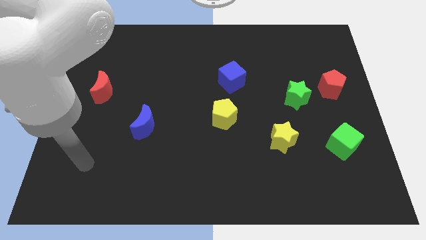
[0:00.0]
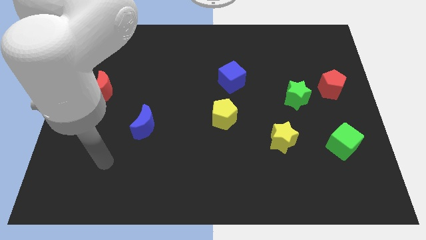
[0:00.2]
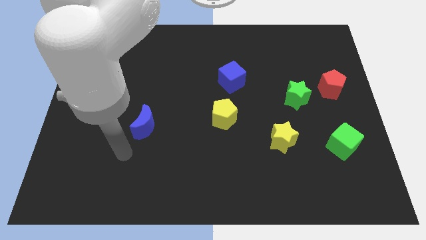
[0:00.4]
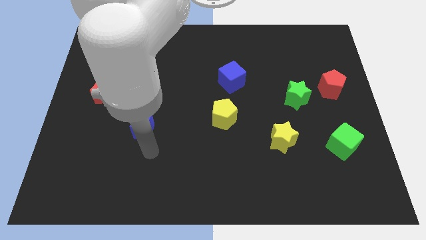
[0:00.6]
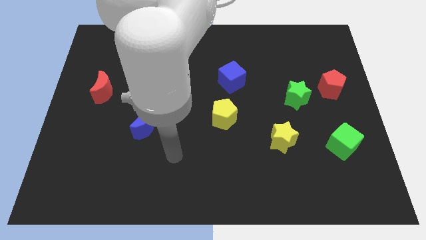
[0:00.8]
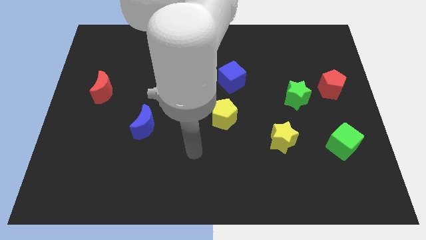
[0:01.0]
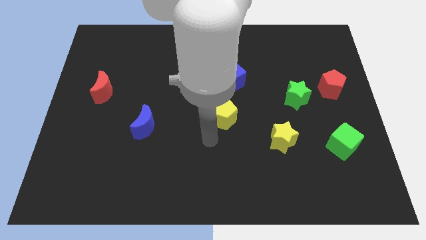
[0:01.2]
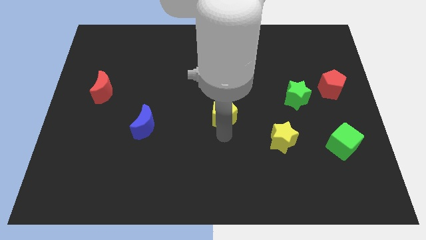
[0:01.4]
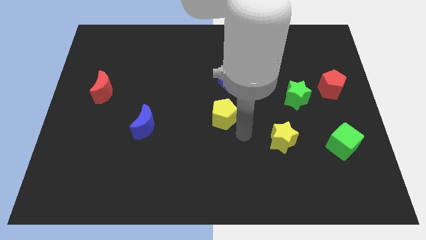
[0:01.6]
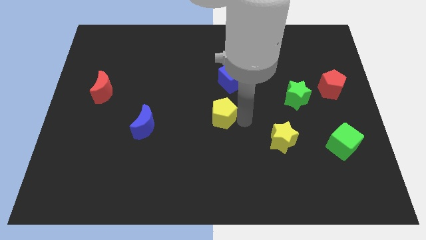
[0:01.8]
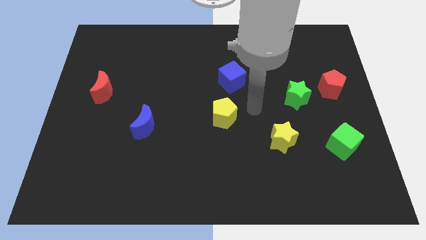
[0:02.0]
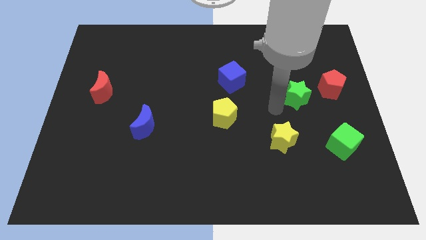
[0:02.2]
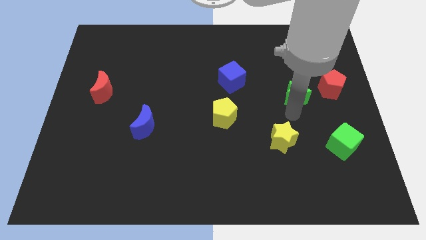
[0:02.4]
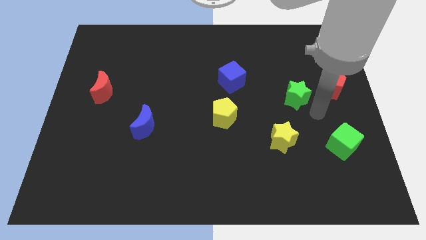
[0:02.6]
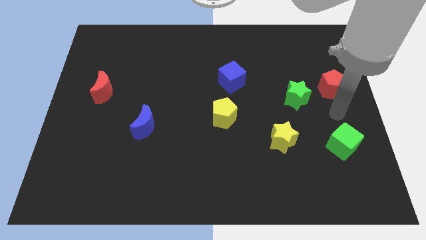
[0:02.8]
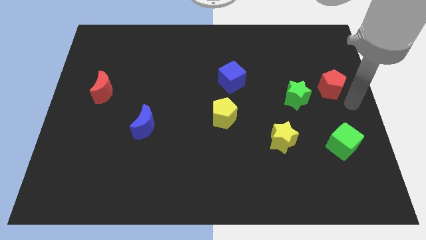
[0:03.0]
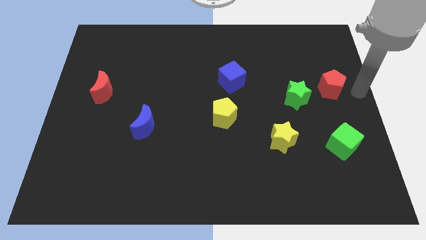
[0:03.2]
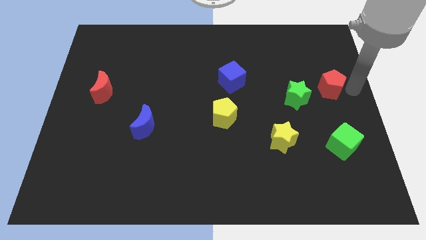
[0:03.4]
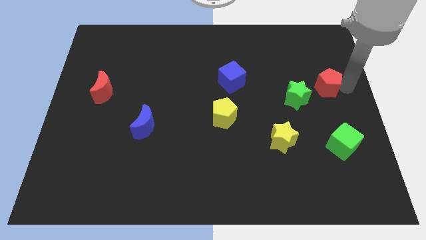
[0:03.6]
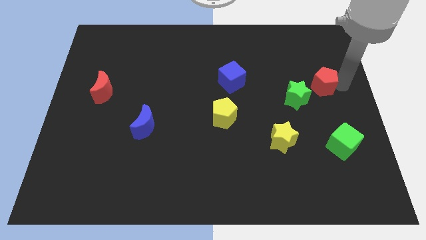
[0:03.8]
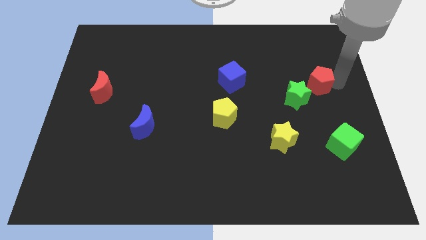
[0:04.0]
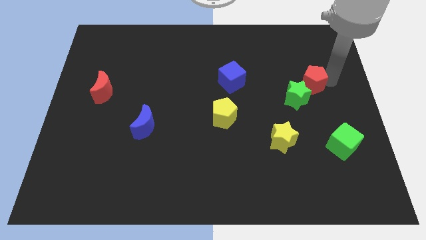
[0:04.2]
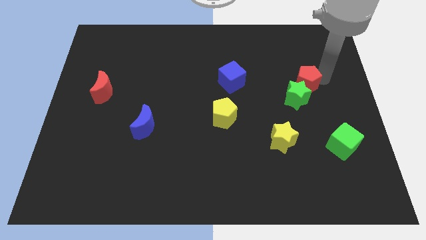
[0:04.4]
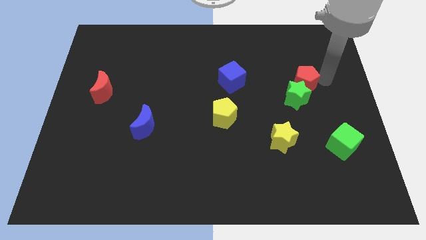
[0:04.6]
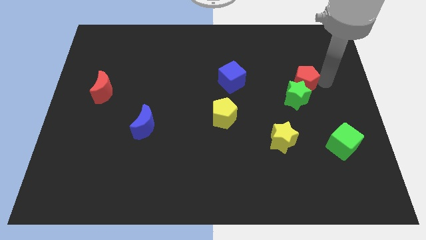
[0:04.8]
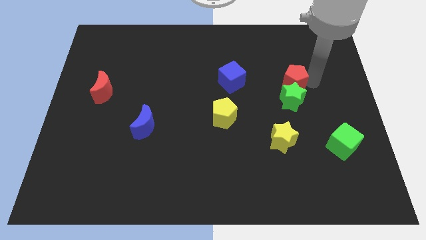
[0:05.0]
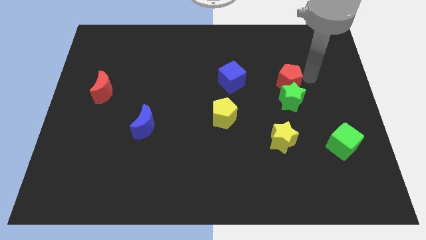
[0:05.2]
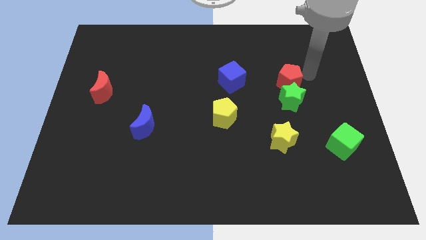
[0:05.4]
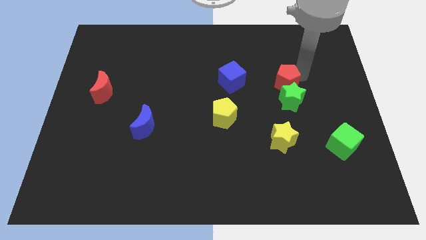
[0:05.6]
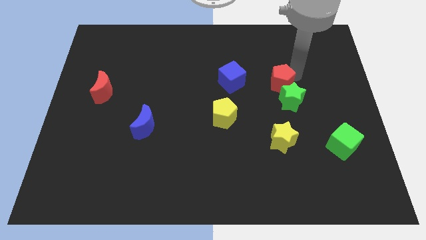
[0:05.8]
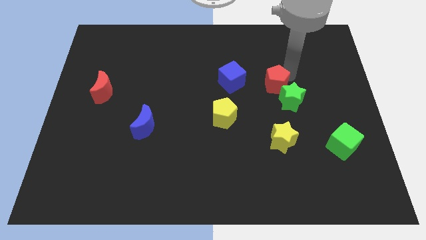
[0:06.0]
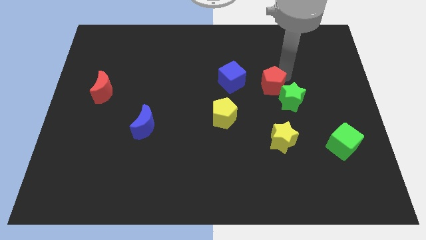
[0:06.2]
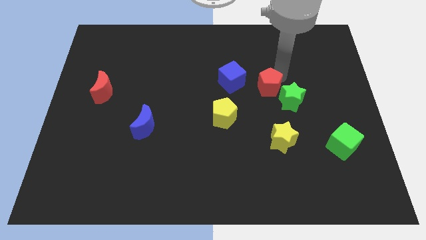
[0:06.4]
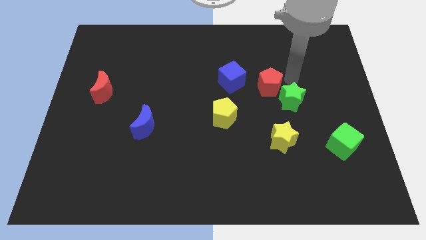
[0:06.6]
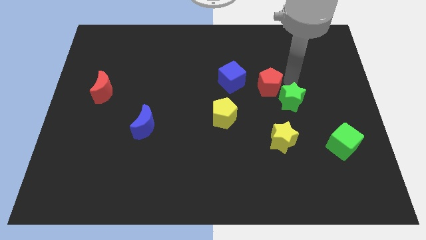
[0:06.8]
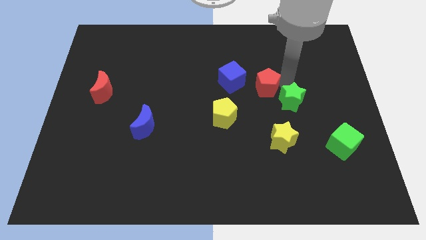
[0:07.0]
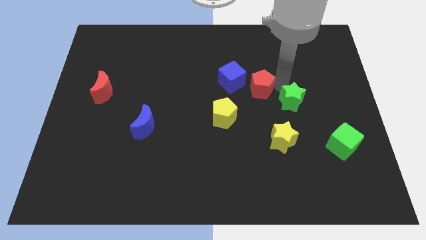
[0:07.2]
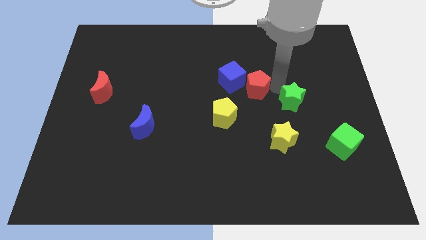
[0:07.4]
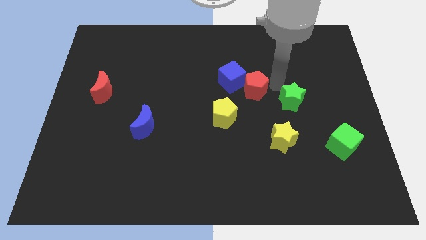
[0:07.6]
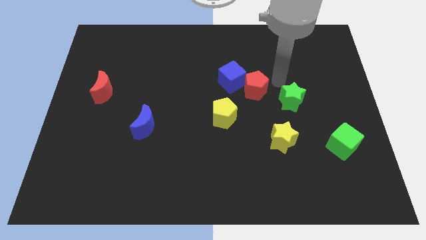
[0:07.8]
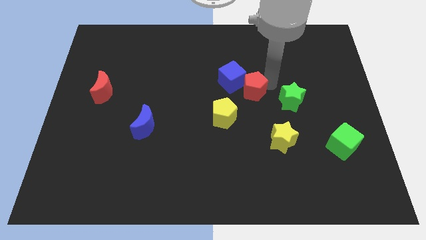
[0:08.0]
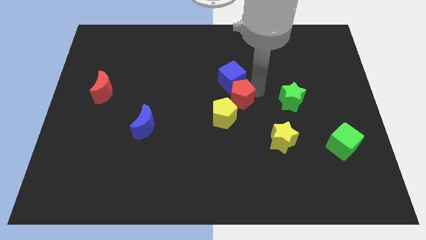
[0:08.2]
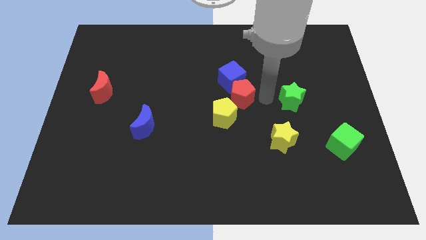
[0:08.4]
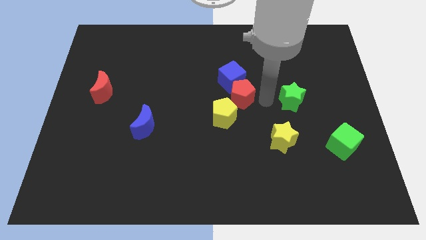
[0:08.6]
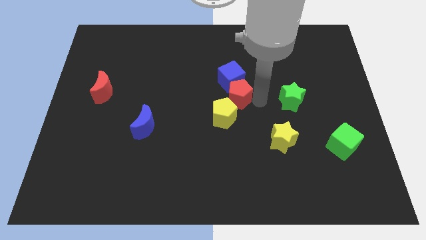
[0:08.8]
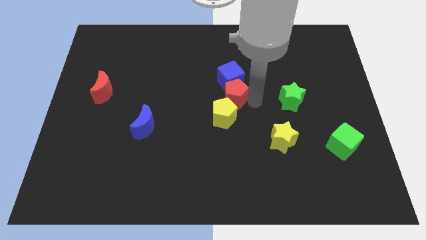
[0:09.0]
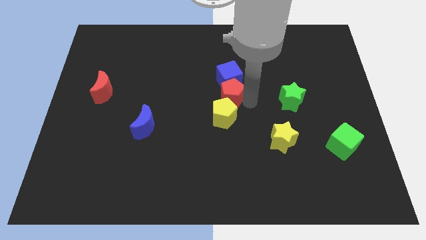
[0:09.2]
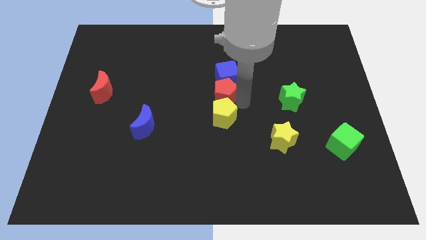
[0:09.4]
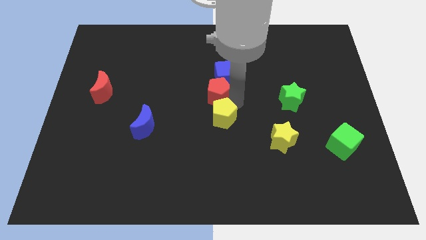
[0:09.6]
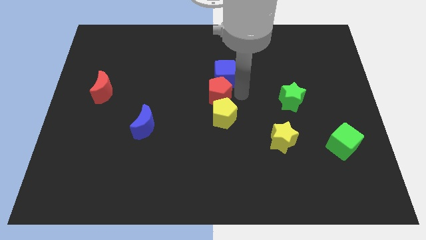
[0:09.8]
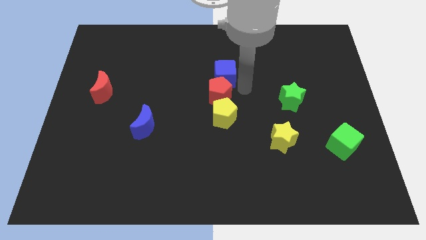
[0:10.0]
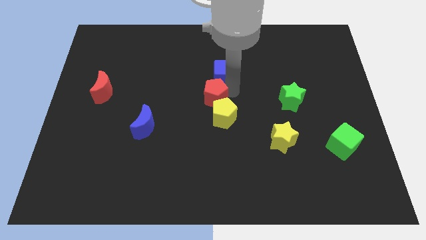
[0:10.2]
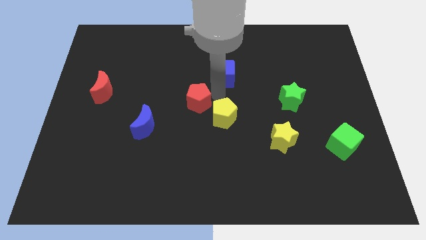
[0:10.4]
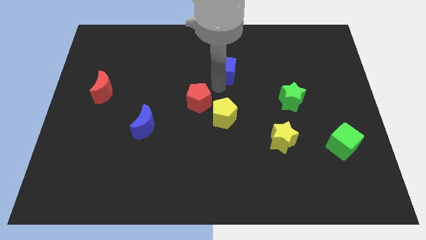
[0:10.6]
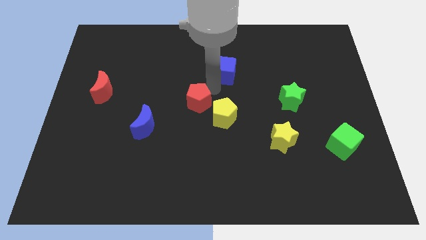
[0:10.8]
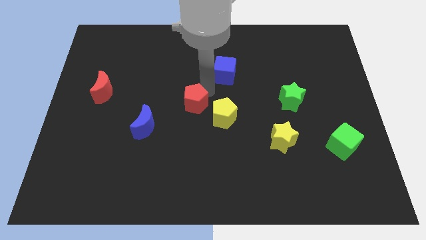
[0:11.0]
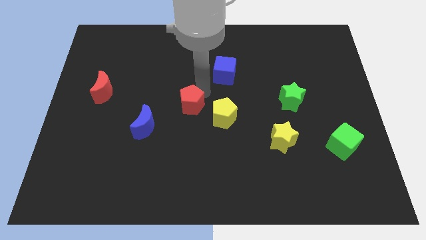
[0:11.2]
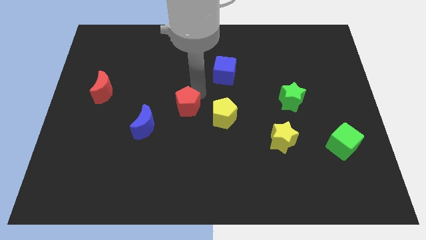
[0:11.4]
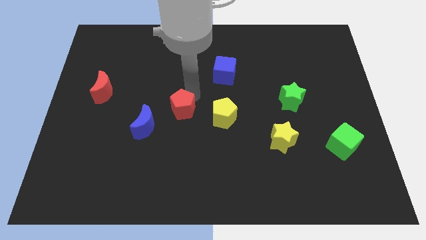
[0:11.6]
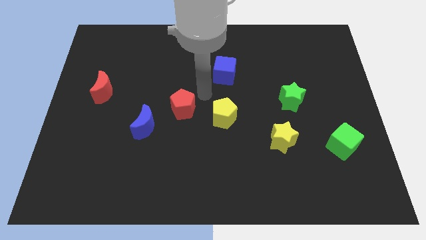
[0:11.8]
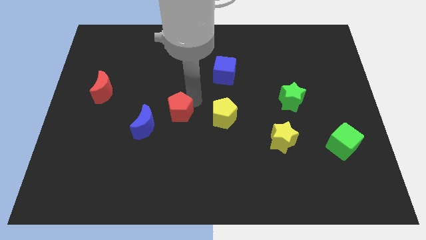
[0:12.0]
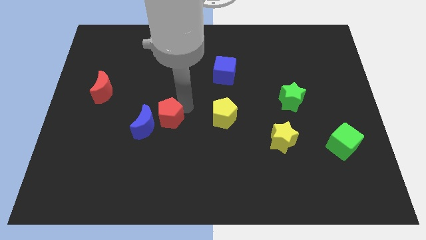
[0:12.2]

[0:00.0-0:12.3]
push the red pentagon towards the blue moon

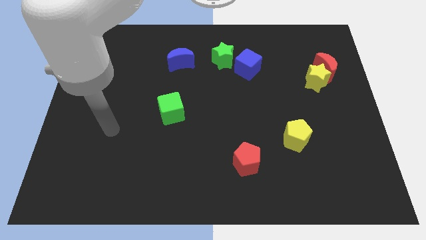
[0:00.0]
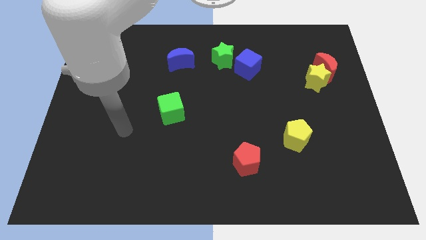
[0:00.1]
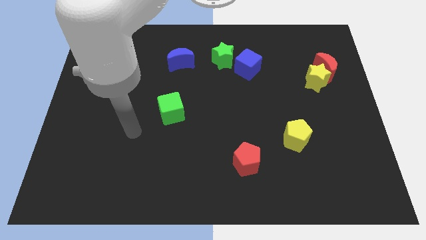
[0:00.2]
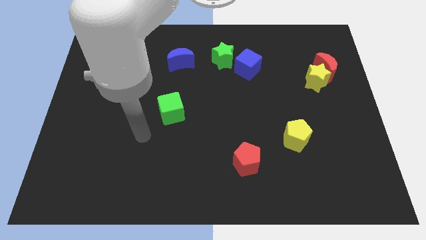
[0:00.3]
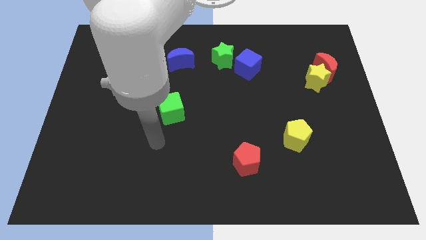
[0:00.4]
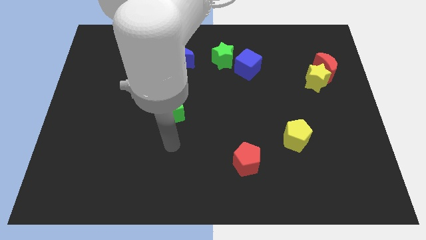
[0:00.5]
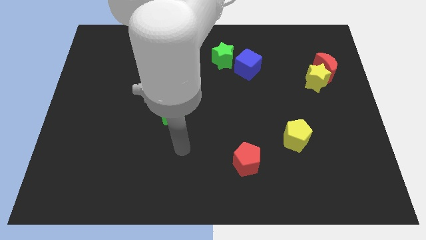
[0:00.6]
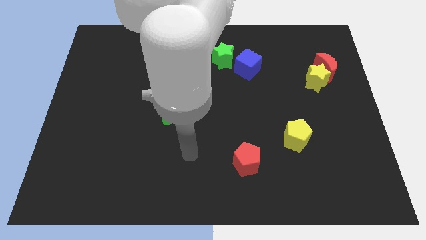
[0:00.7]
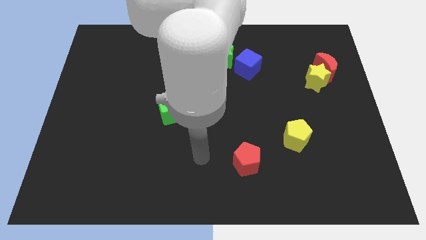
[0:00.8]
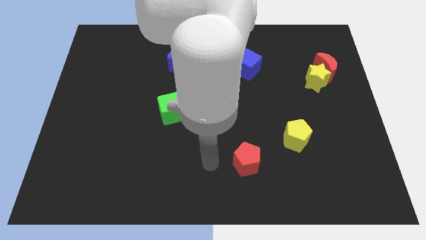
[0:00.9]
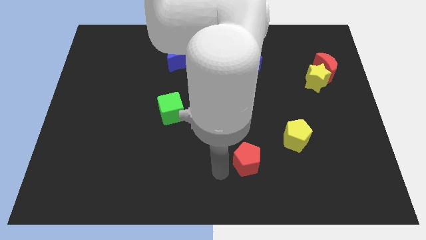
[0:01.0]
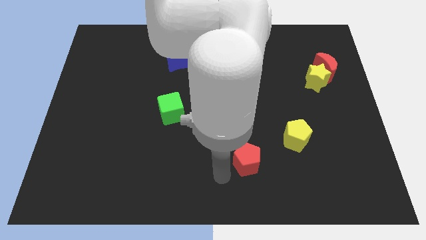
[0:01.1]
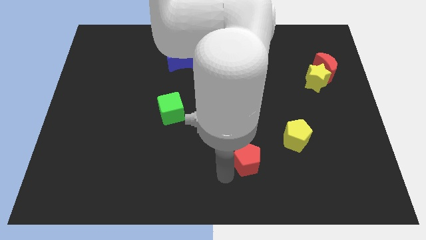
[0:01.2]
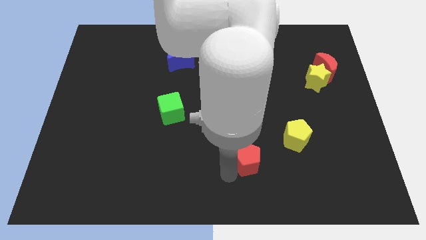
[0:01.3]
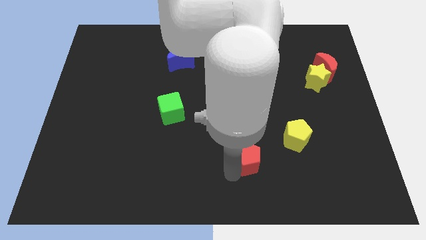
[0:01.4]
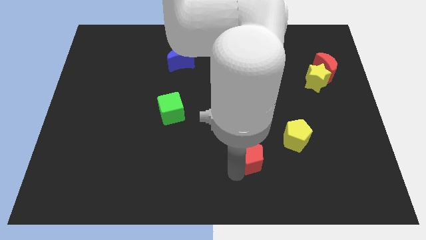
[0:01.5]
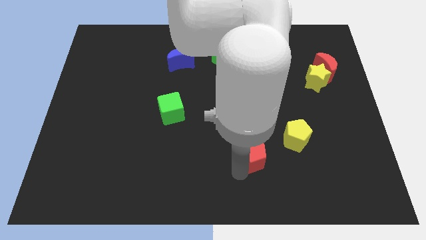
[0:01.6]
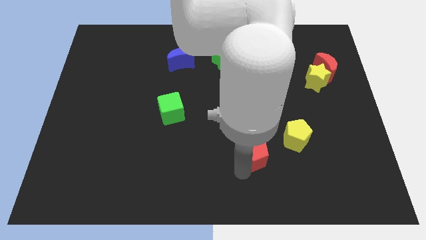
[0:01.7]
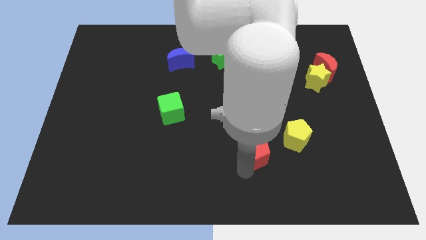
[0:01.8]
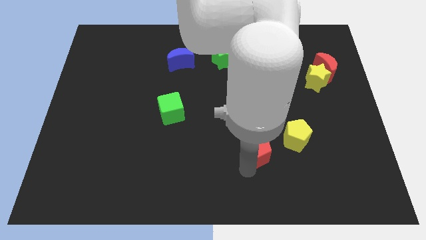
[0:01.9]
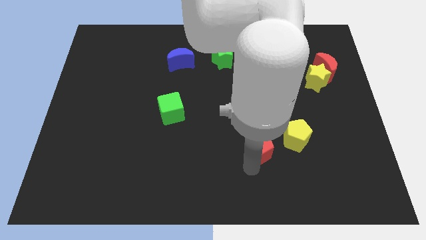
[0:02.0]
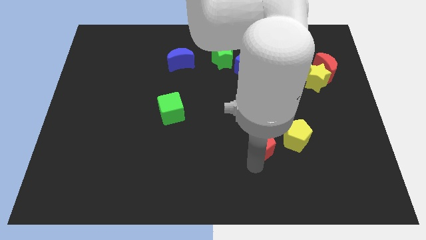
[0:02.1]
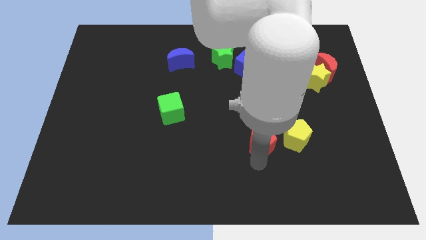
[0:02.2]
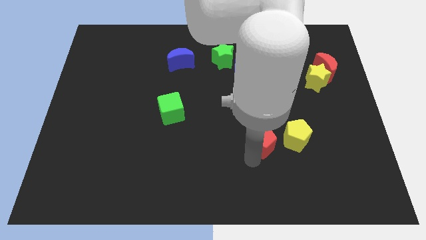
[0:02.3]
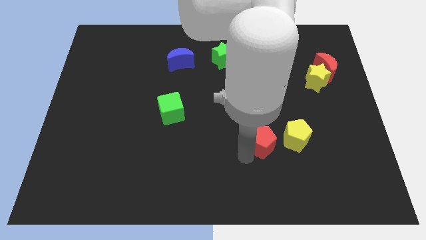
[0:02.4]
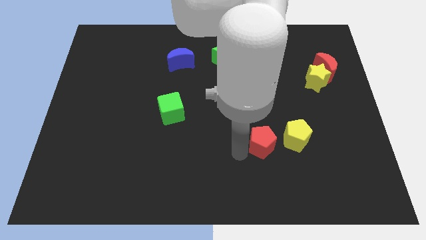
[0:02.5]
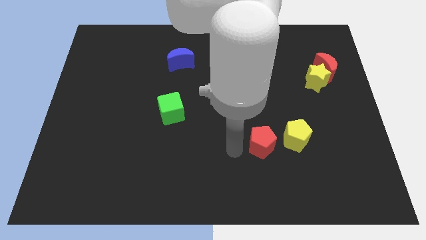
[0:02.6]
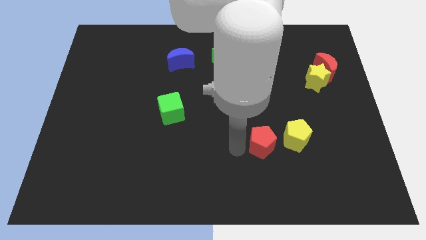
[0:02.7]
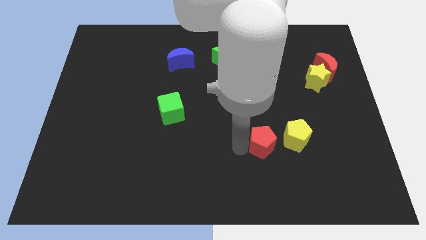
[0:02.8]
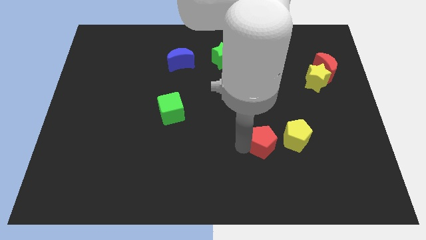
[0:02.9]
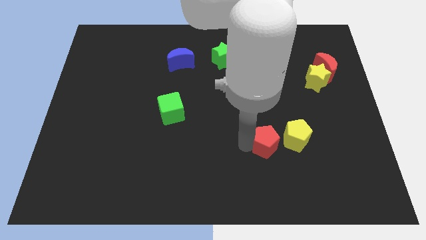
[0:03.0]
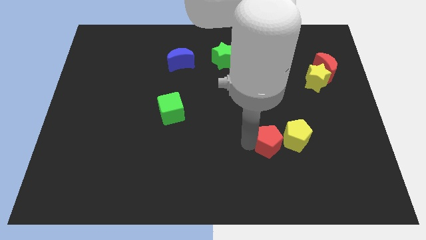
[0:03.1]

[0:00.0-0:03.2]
move the red pentagon towards the yellow pentagon
